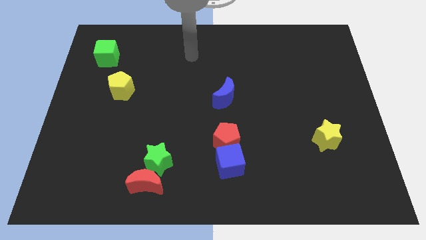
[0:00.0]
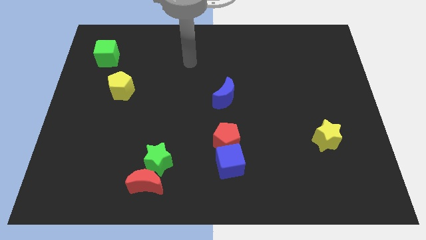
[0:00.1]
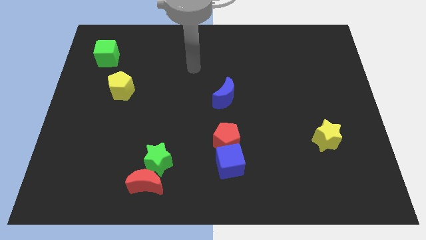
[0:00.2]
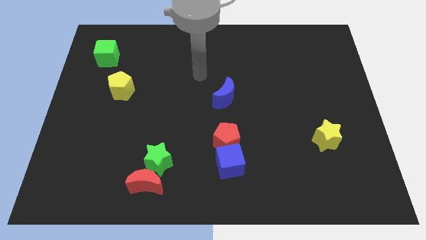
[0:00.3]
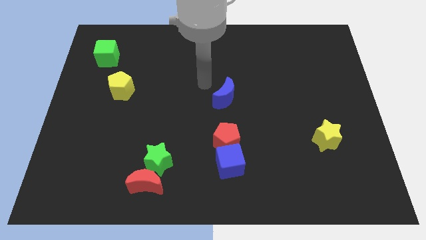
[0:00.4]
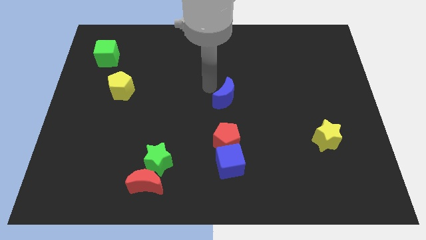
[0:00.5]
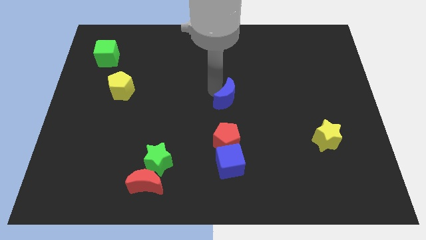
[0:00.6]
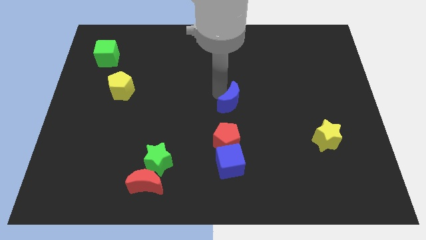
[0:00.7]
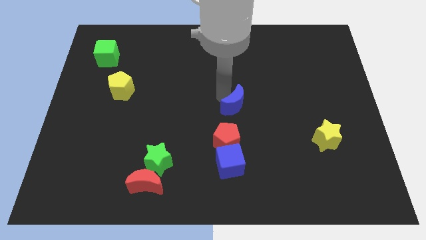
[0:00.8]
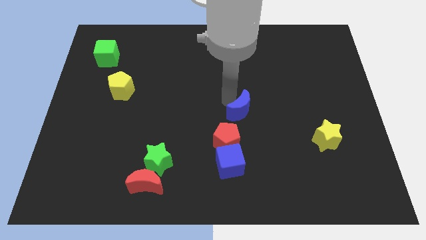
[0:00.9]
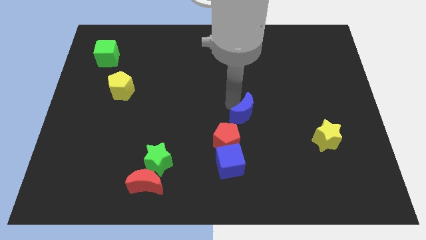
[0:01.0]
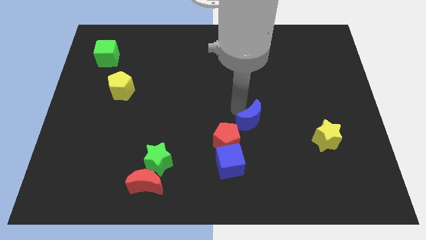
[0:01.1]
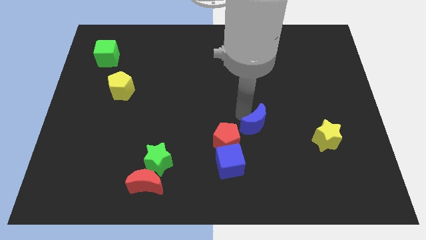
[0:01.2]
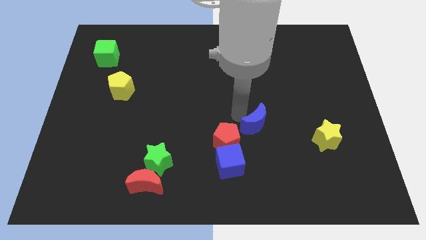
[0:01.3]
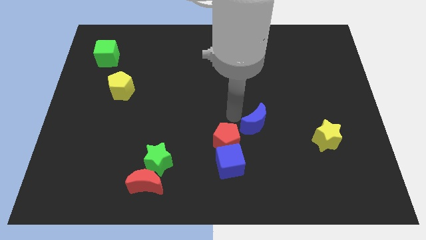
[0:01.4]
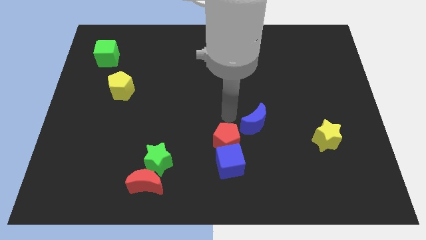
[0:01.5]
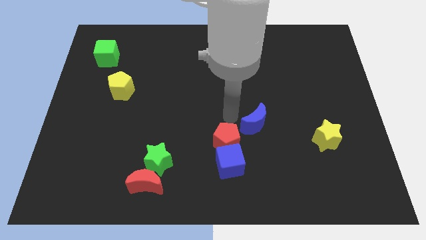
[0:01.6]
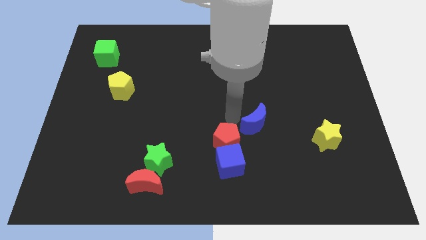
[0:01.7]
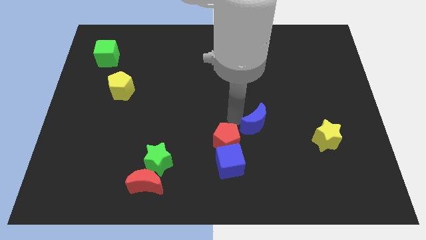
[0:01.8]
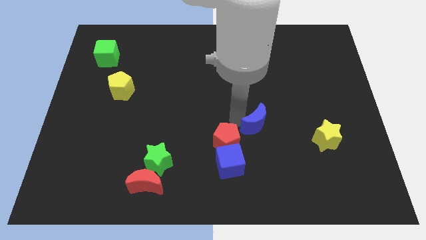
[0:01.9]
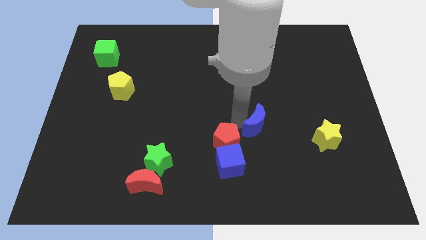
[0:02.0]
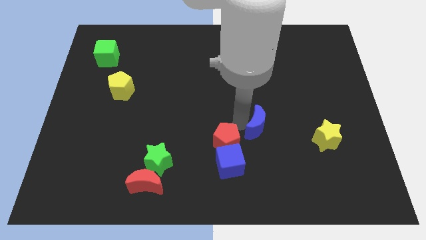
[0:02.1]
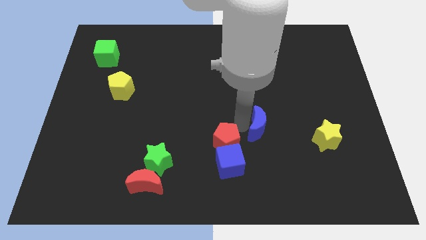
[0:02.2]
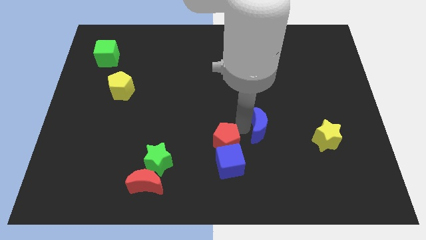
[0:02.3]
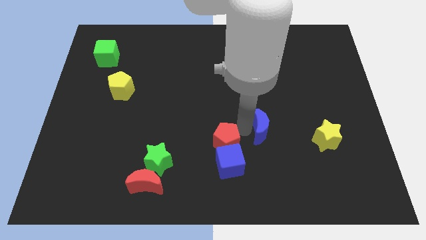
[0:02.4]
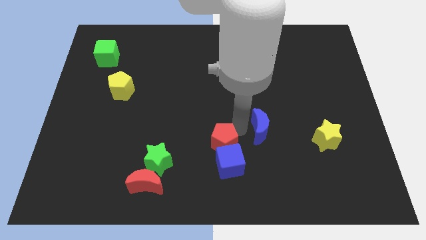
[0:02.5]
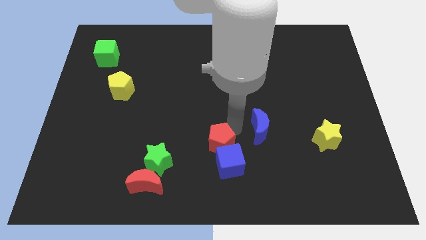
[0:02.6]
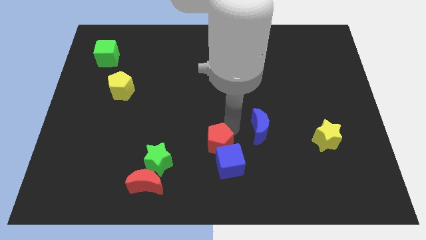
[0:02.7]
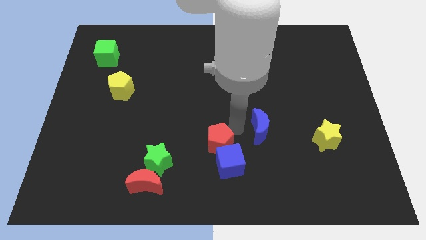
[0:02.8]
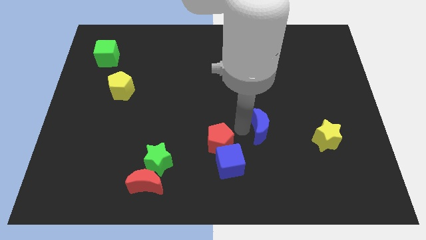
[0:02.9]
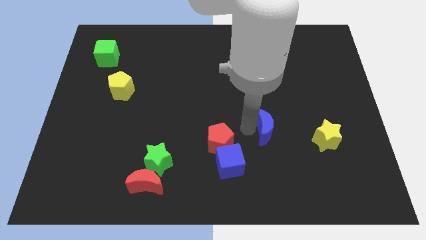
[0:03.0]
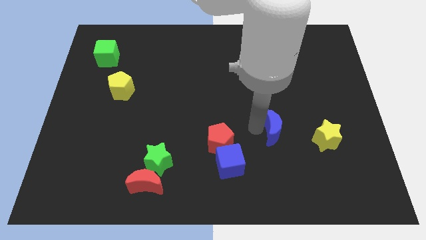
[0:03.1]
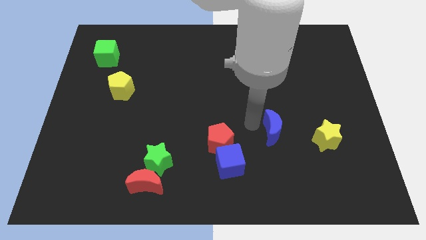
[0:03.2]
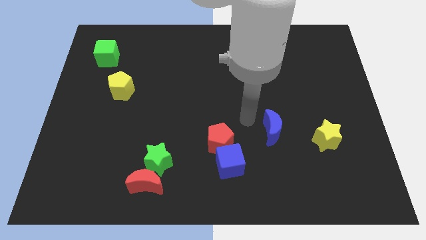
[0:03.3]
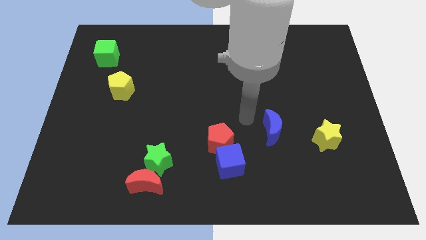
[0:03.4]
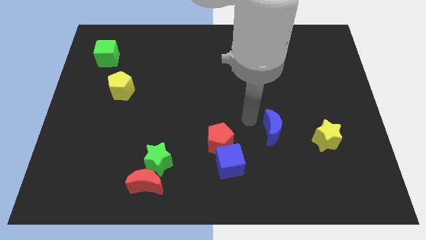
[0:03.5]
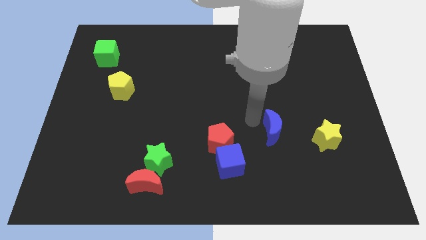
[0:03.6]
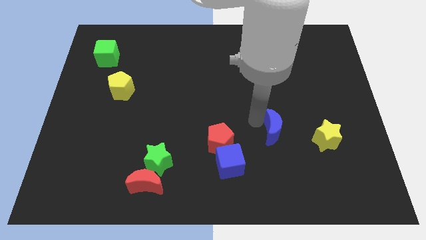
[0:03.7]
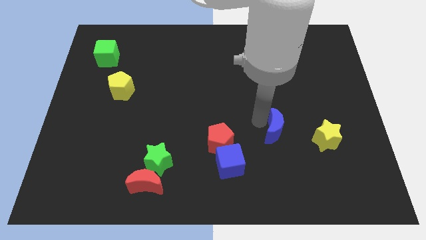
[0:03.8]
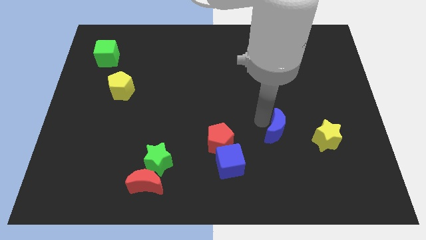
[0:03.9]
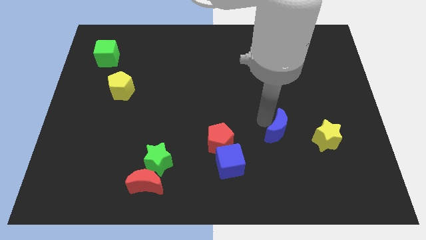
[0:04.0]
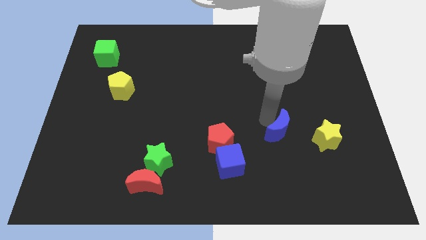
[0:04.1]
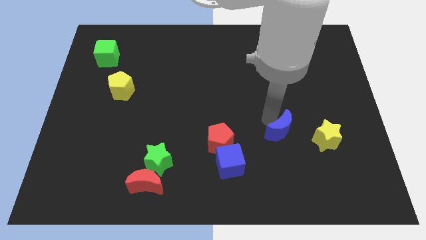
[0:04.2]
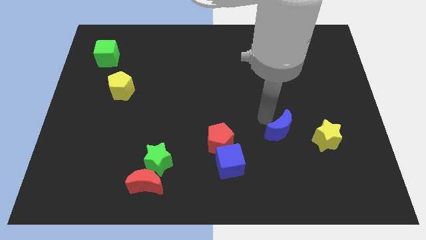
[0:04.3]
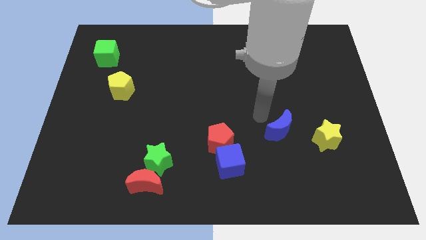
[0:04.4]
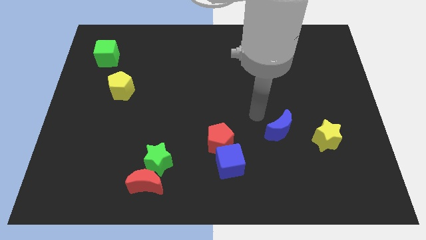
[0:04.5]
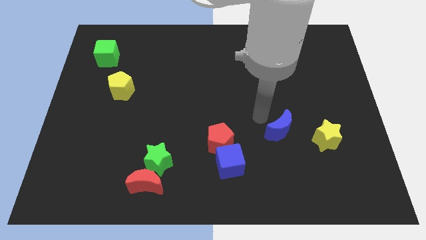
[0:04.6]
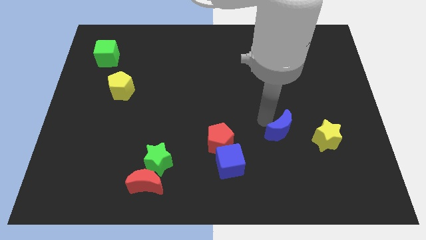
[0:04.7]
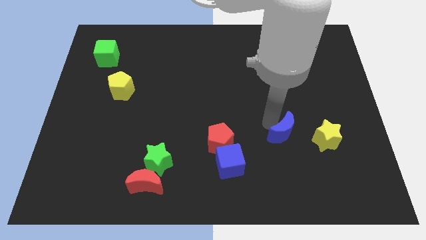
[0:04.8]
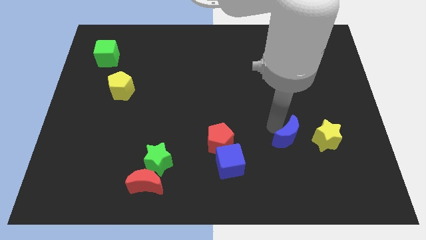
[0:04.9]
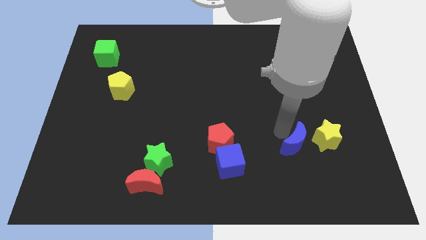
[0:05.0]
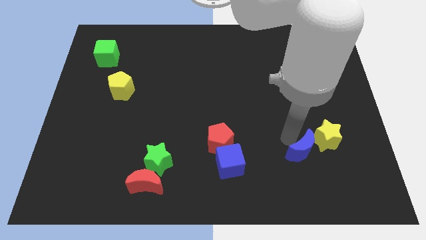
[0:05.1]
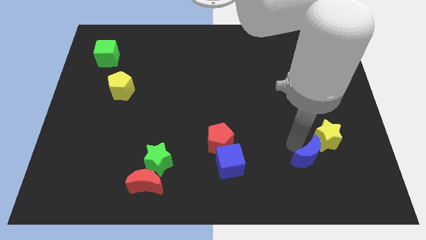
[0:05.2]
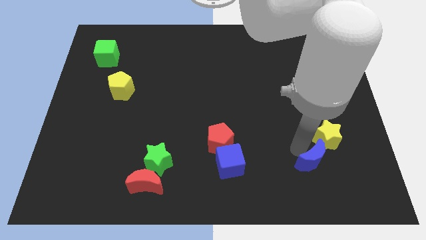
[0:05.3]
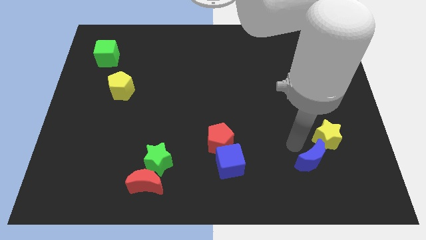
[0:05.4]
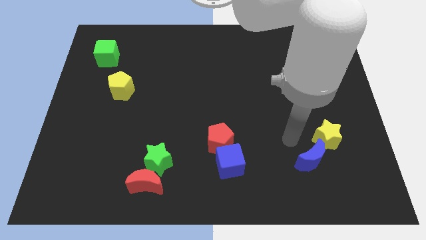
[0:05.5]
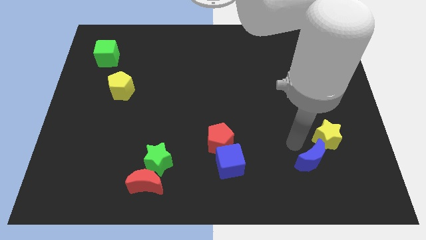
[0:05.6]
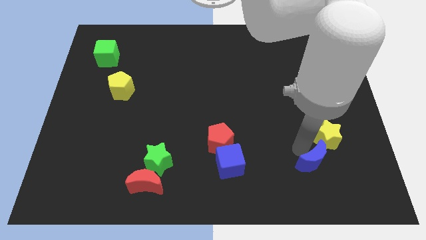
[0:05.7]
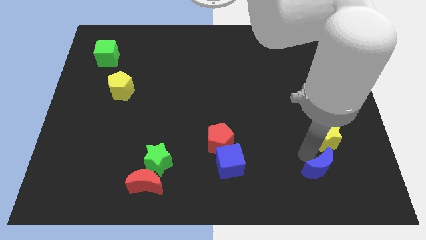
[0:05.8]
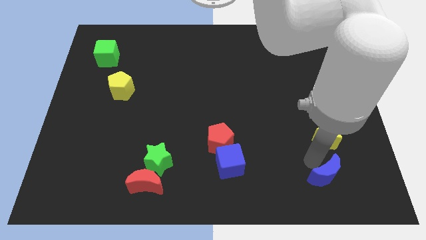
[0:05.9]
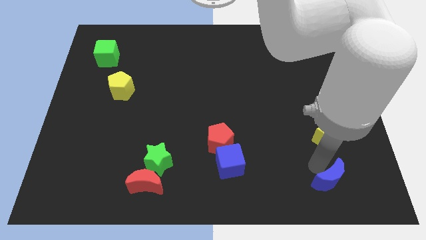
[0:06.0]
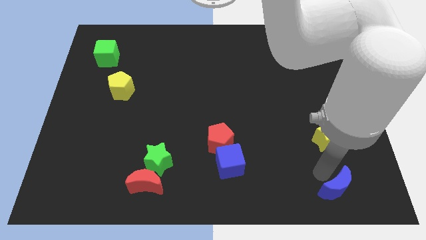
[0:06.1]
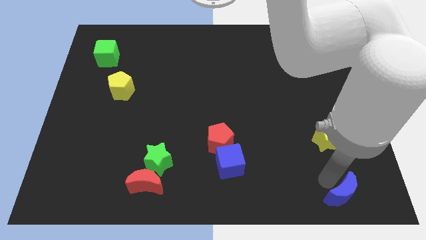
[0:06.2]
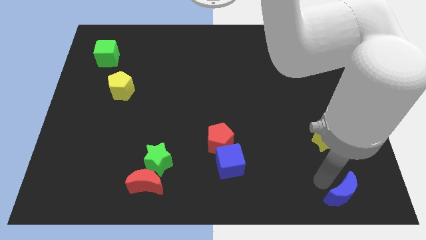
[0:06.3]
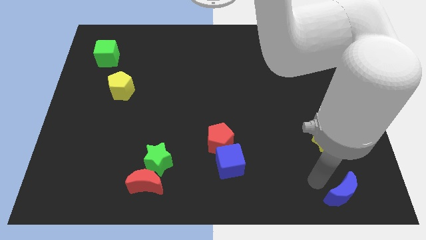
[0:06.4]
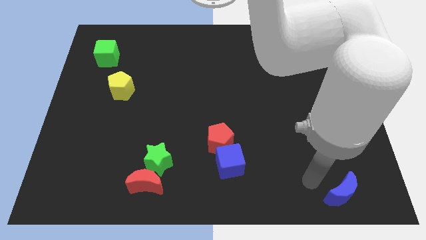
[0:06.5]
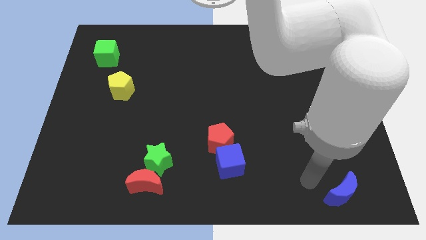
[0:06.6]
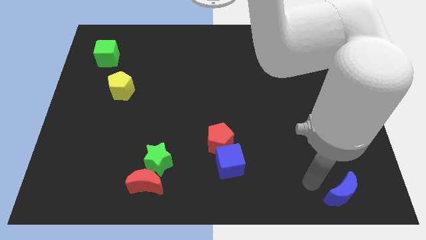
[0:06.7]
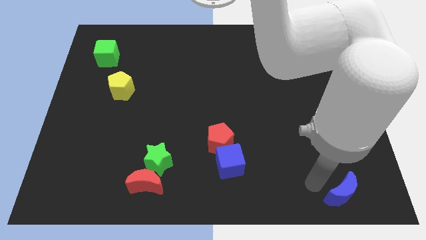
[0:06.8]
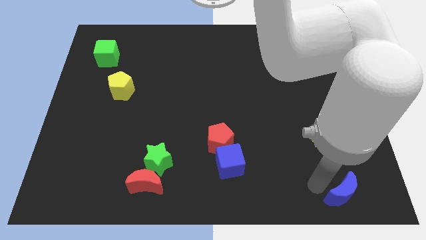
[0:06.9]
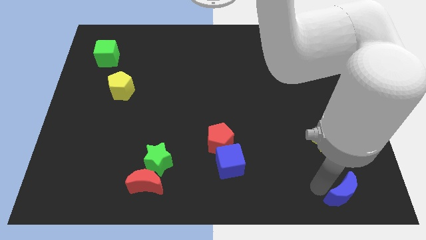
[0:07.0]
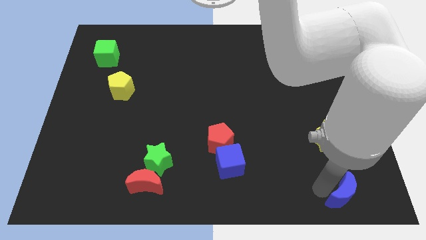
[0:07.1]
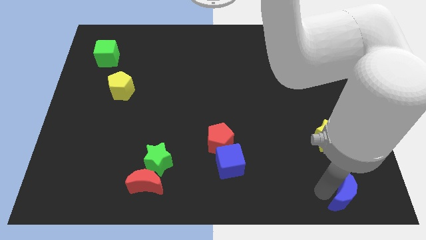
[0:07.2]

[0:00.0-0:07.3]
push the blue moon to the lower right corner
